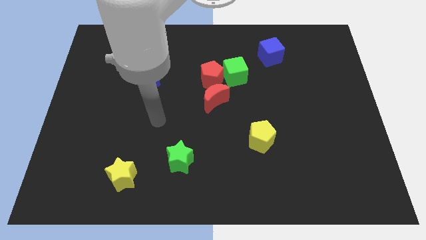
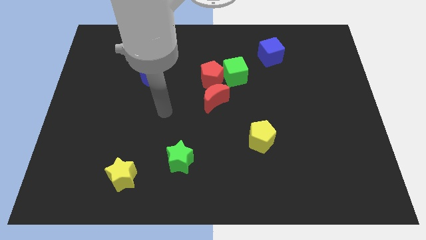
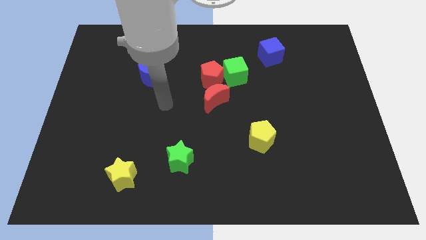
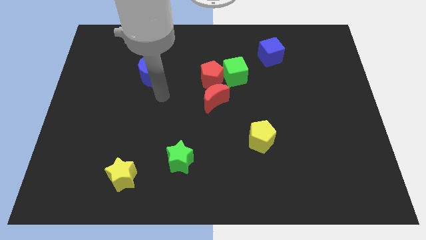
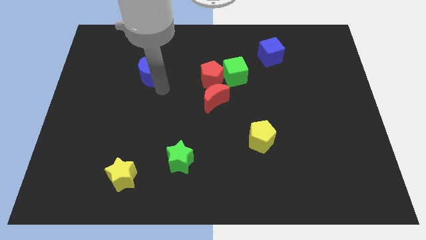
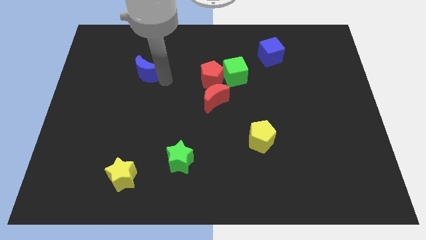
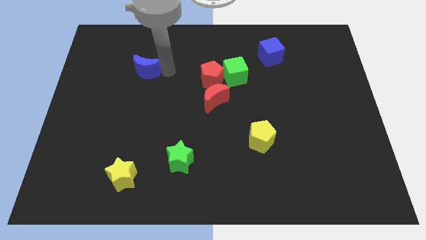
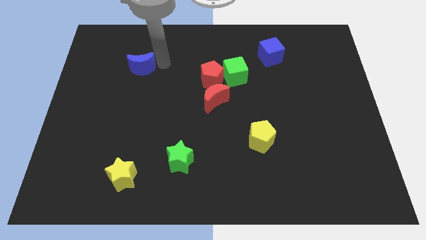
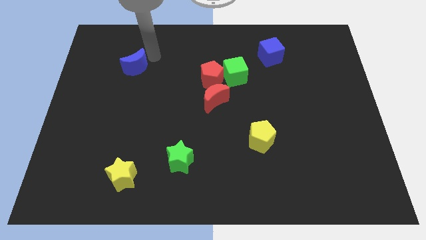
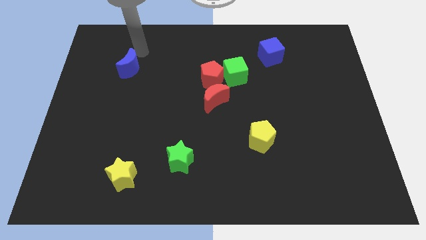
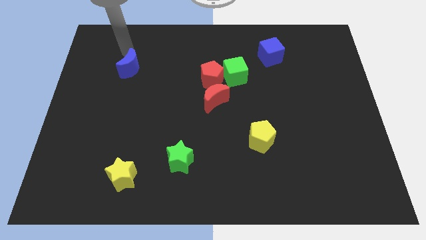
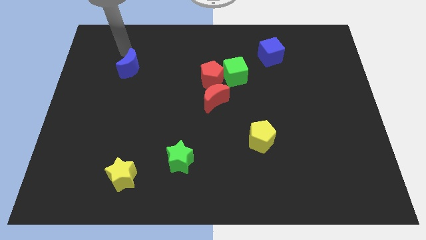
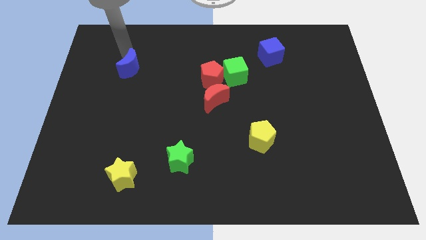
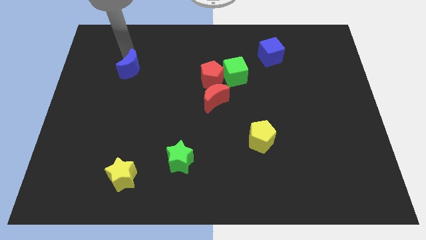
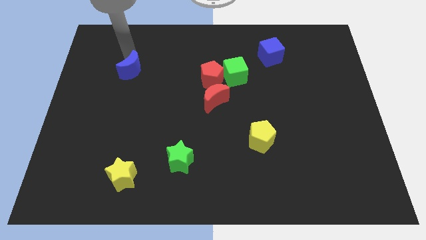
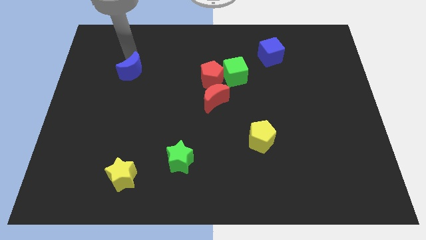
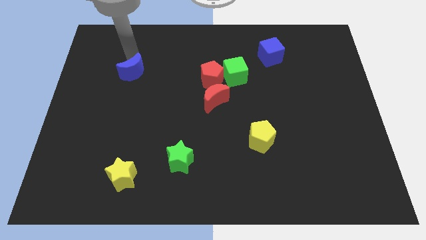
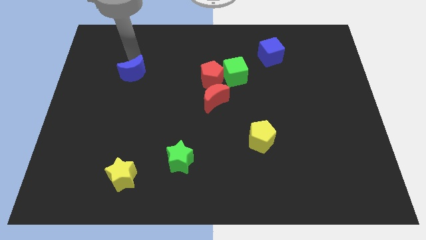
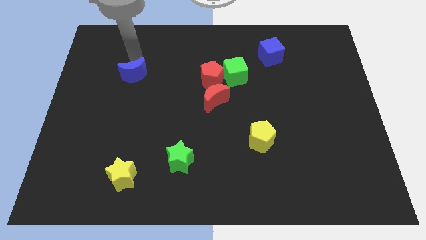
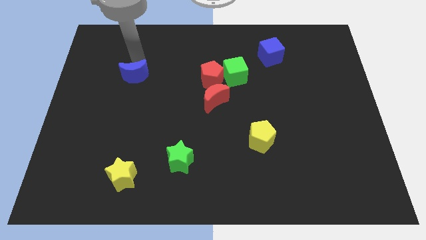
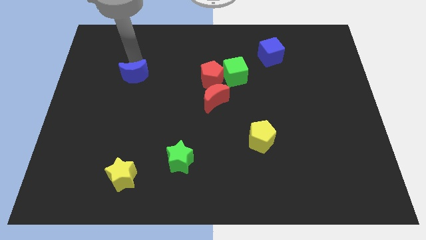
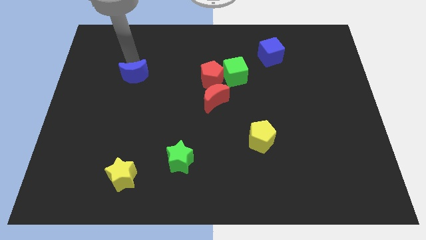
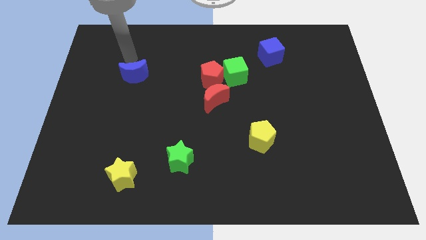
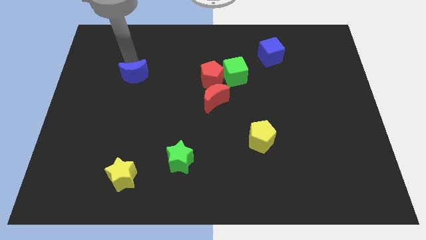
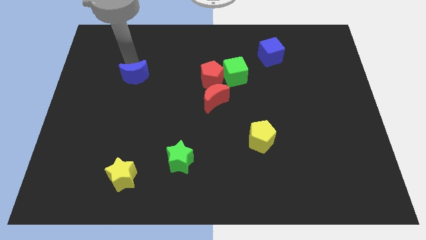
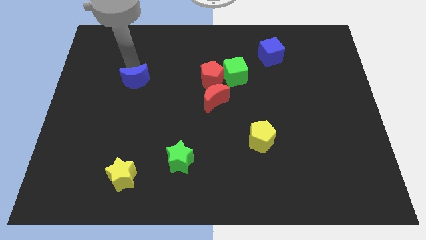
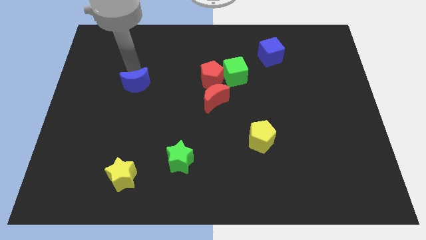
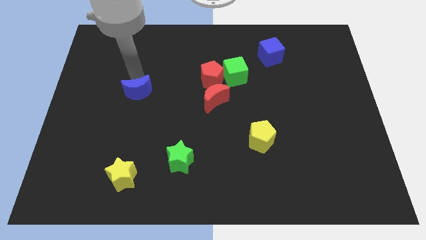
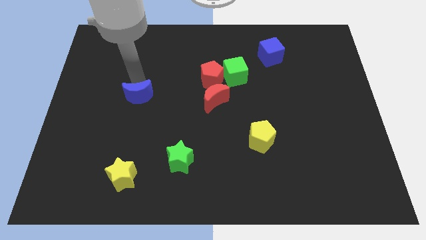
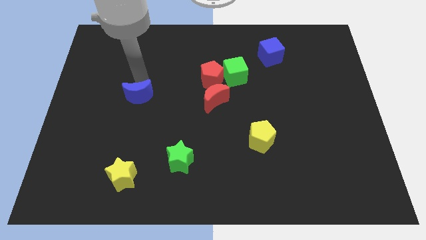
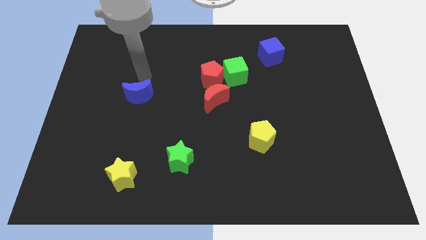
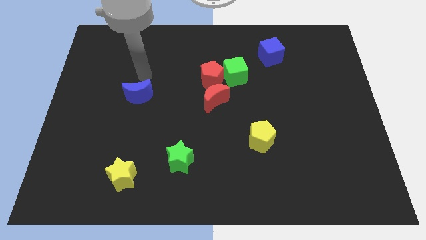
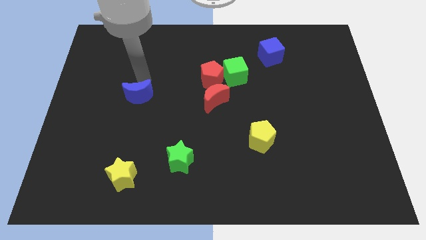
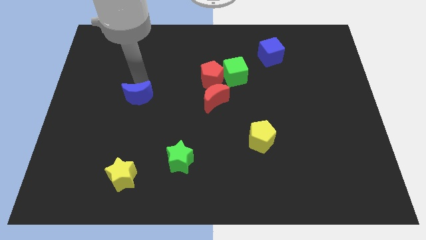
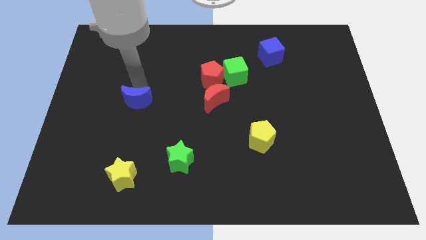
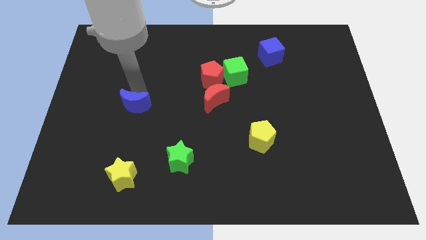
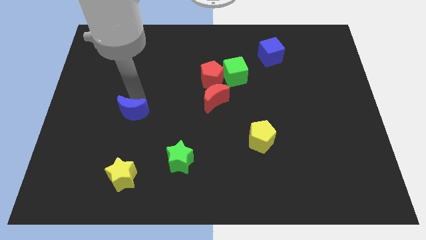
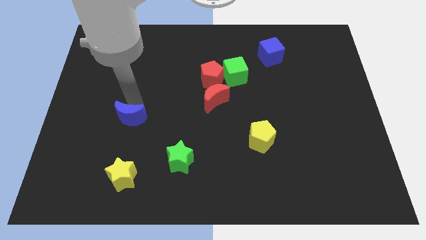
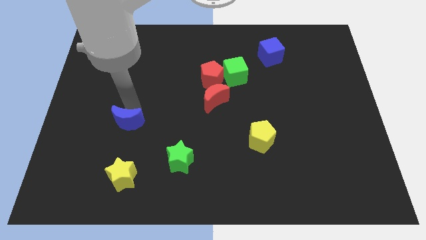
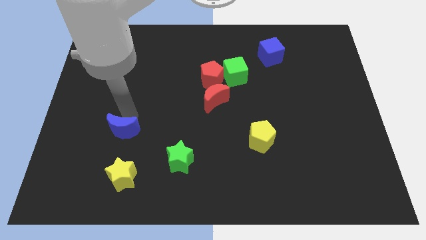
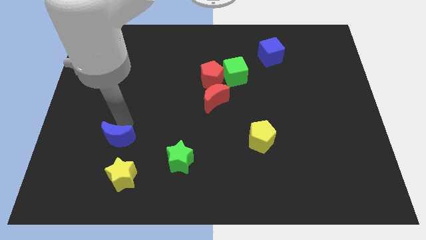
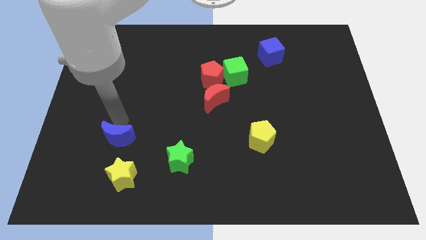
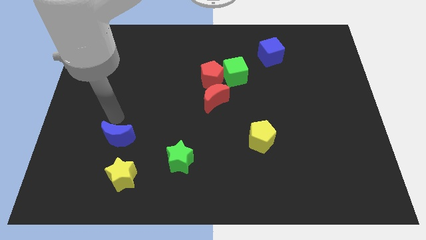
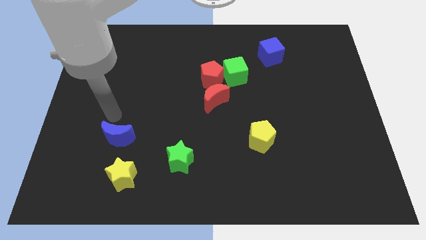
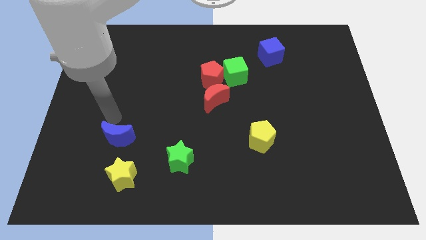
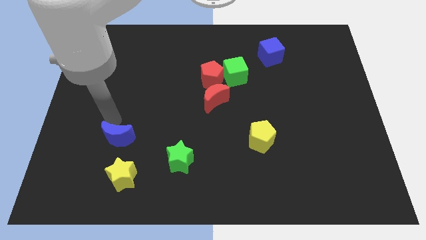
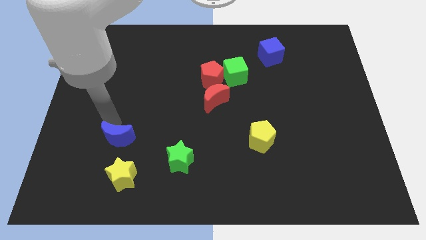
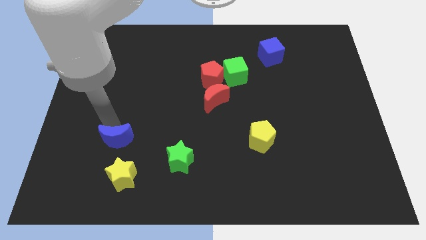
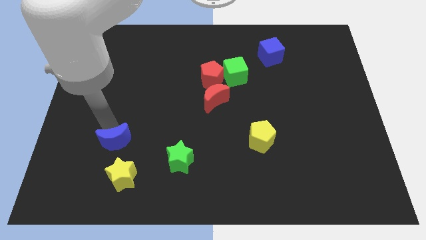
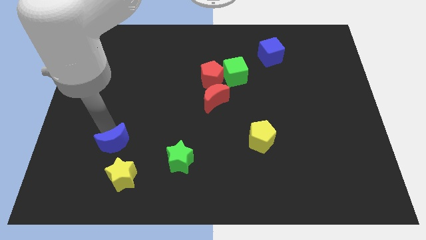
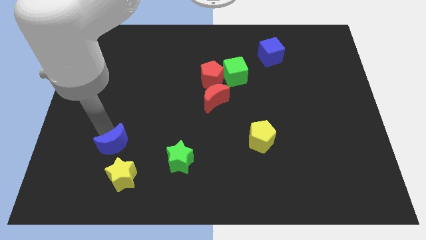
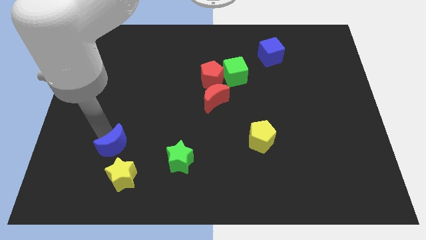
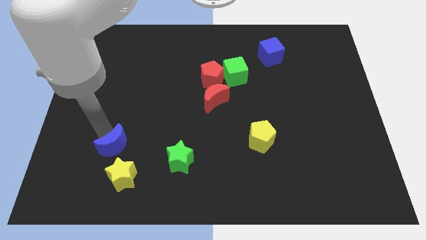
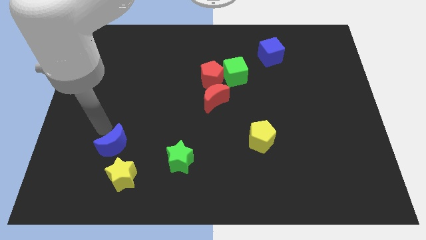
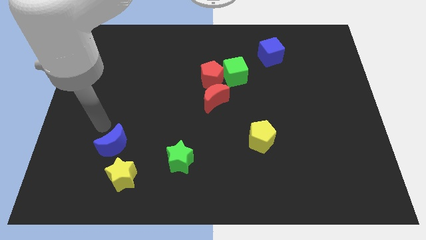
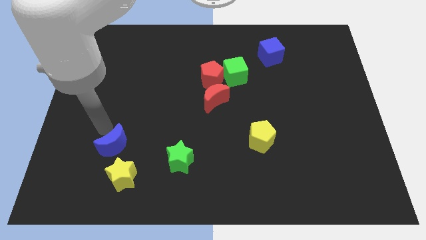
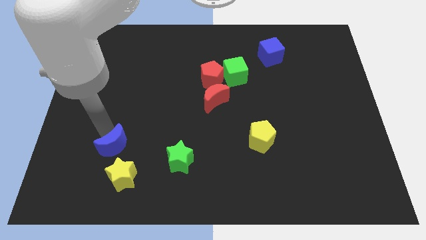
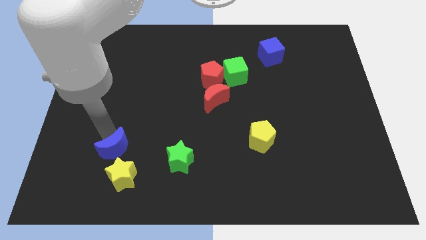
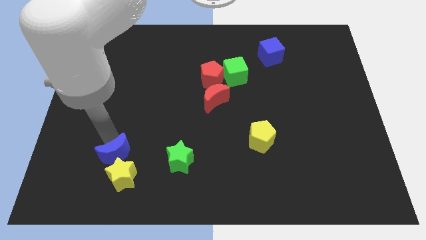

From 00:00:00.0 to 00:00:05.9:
push the blue moon towards the yellow star

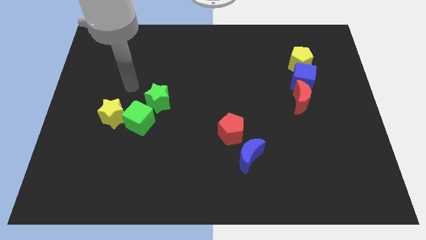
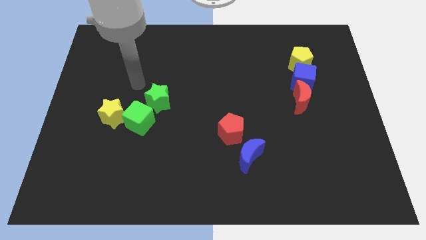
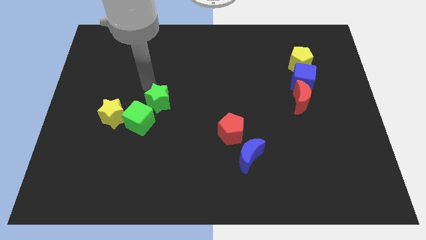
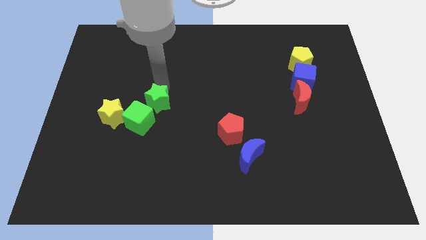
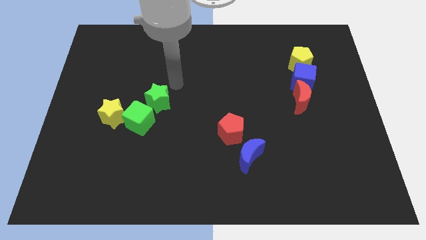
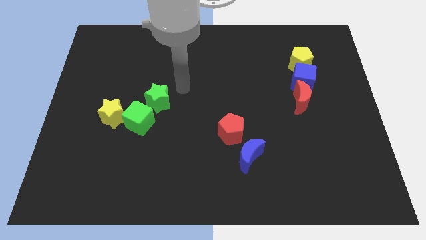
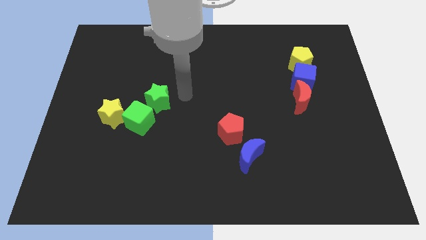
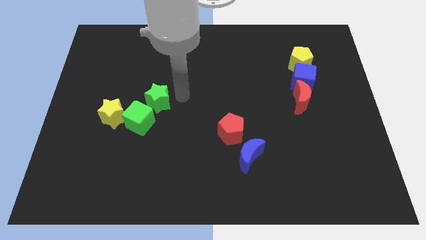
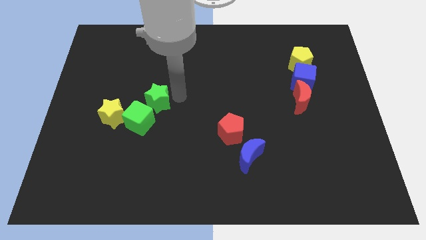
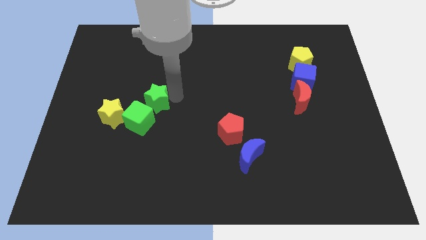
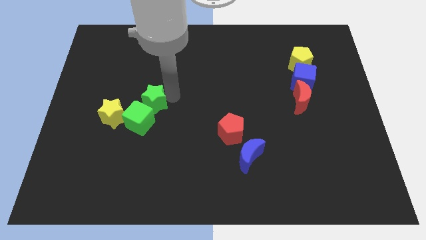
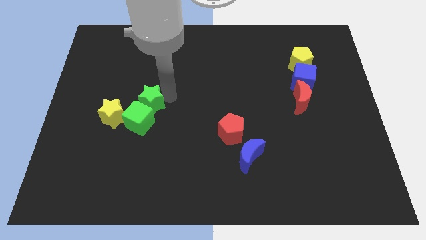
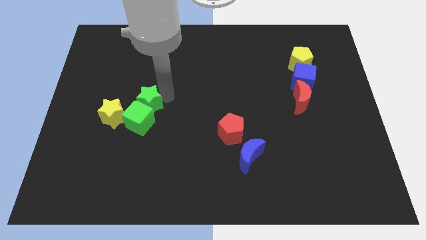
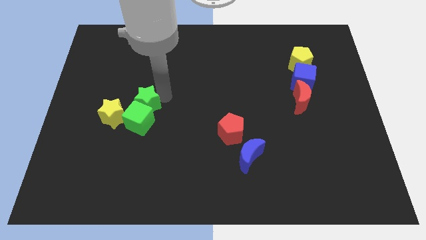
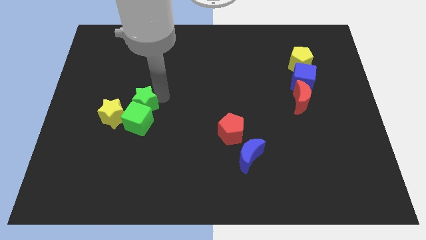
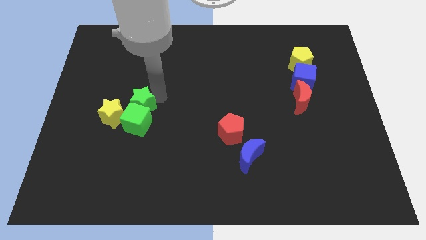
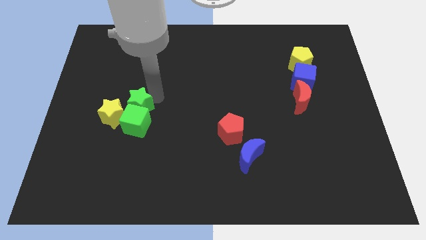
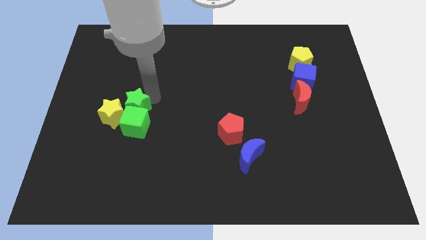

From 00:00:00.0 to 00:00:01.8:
put the green star to the yellow star
